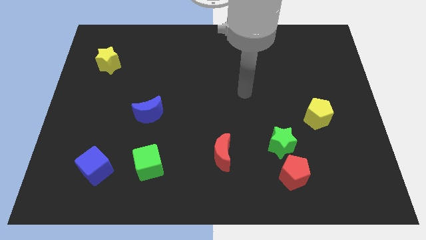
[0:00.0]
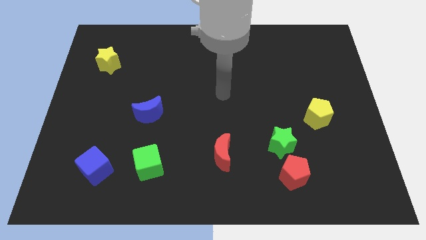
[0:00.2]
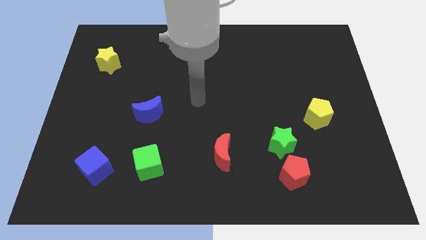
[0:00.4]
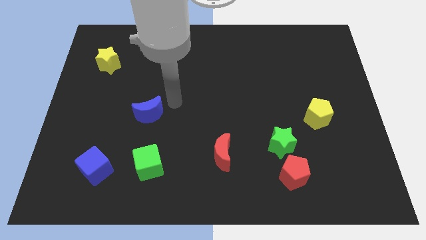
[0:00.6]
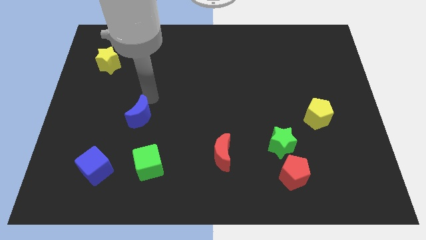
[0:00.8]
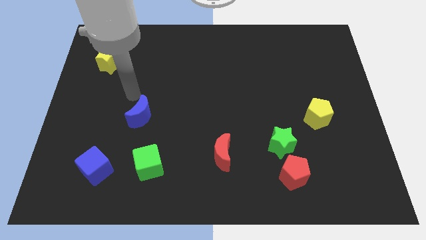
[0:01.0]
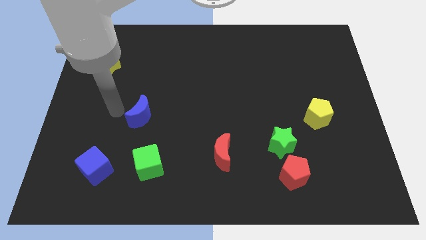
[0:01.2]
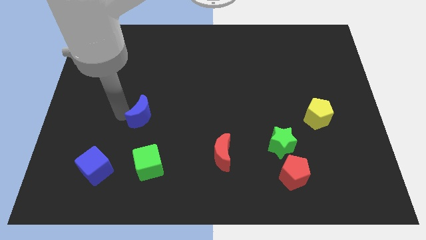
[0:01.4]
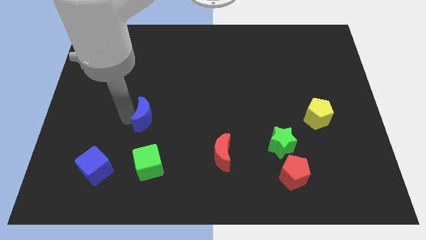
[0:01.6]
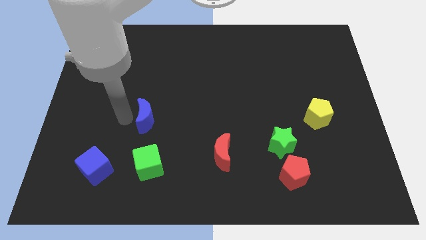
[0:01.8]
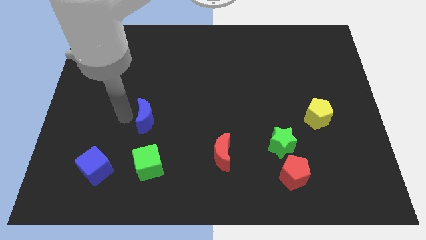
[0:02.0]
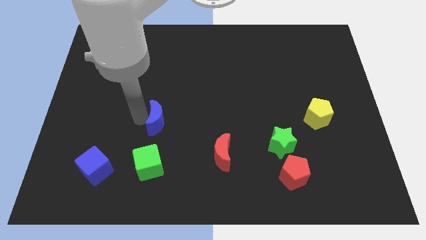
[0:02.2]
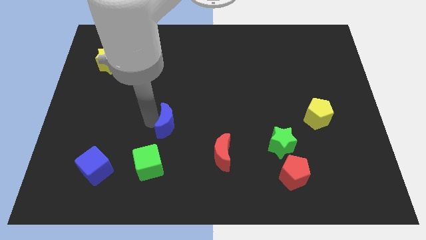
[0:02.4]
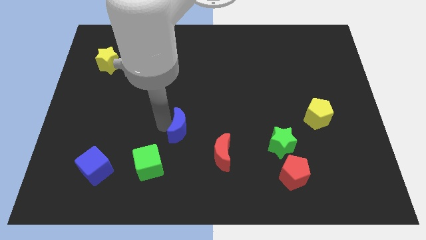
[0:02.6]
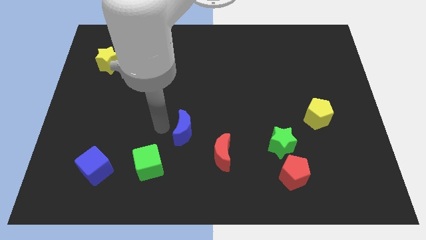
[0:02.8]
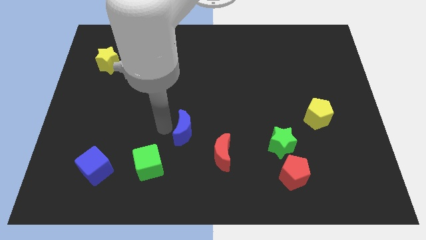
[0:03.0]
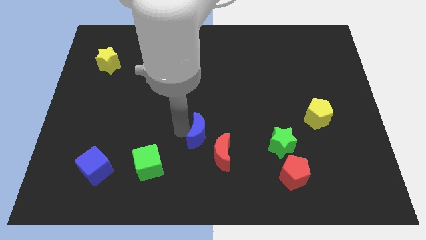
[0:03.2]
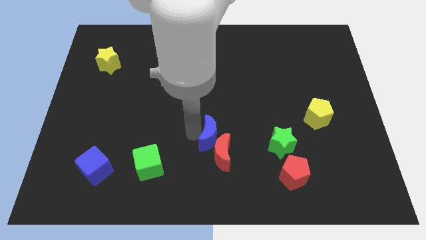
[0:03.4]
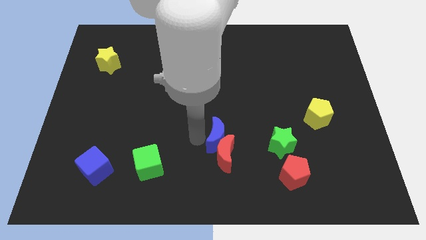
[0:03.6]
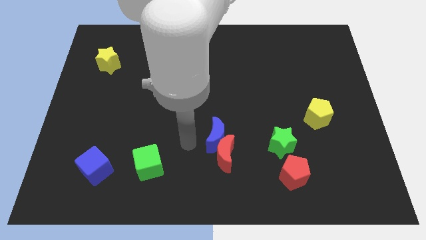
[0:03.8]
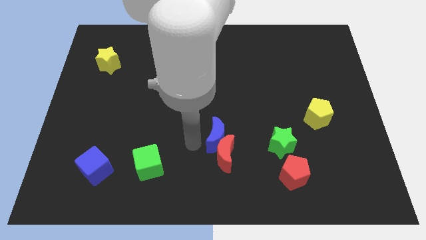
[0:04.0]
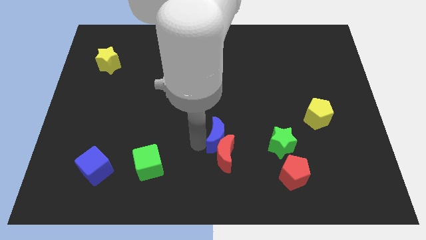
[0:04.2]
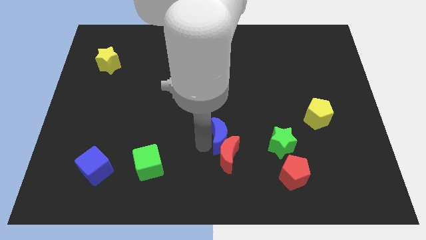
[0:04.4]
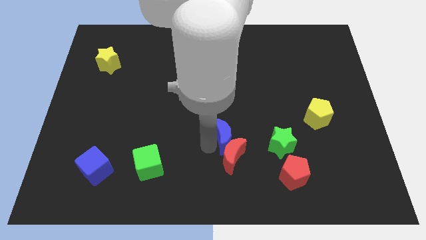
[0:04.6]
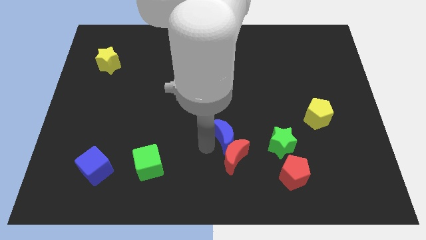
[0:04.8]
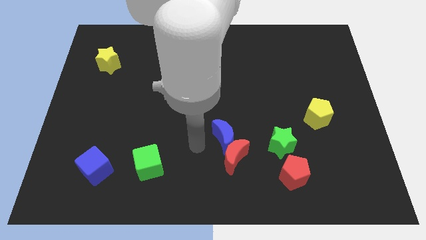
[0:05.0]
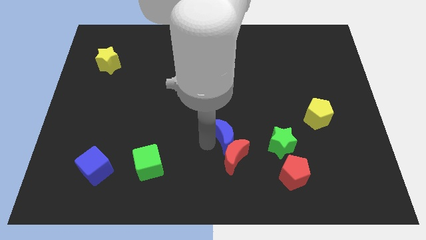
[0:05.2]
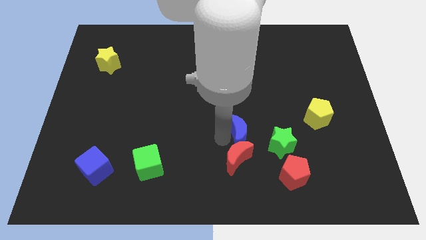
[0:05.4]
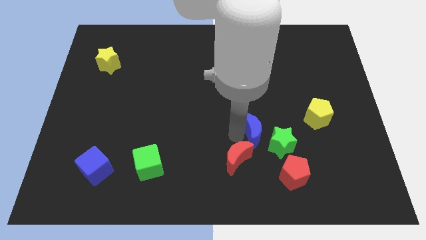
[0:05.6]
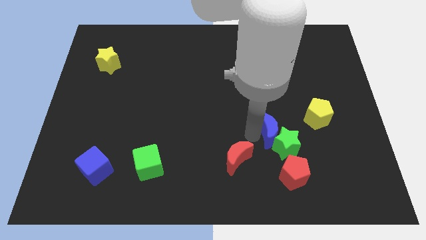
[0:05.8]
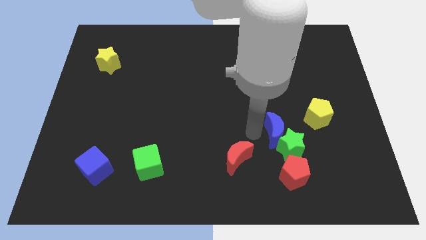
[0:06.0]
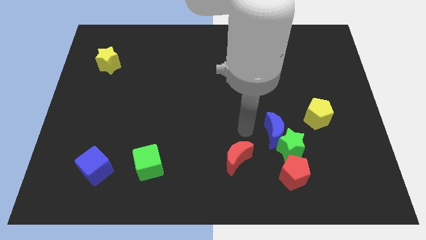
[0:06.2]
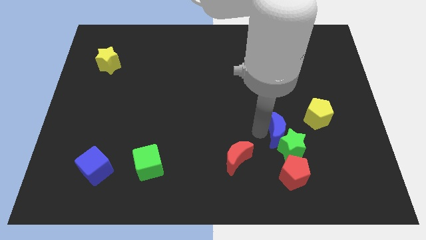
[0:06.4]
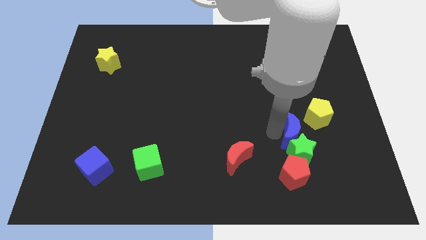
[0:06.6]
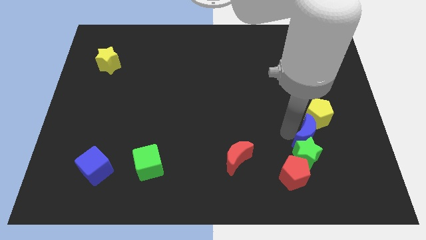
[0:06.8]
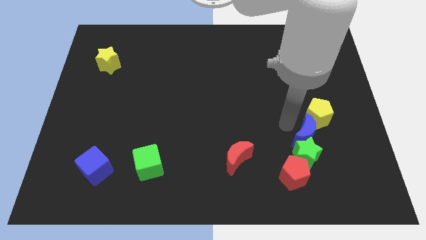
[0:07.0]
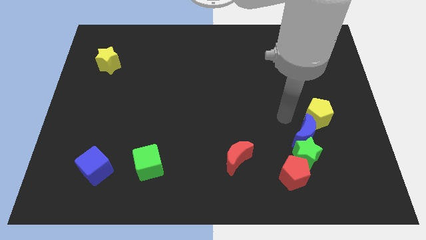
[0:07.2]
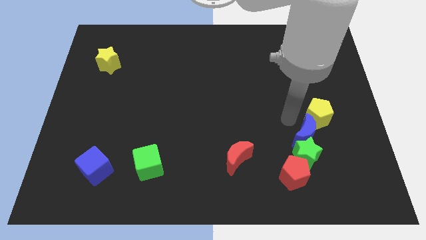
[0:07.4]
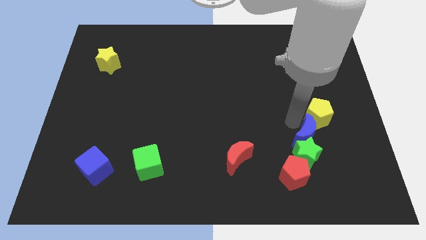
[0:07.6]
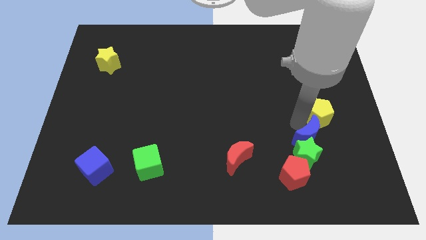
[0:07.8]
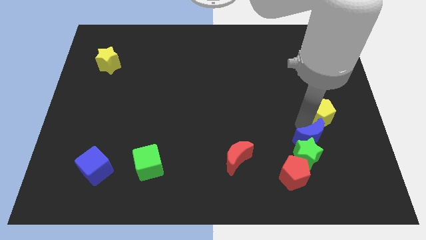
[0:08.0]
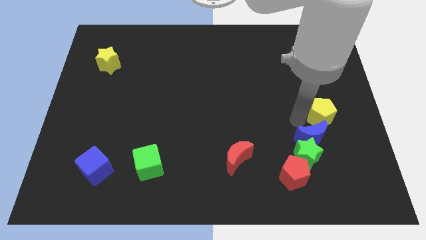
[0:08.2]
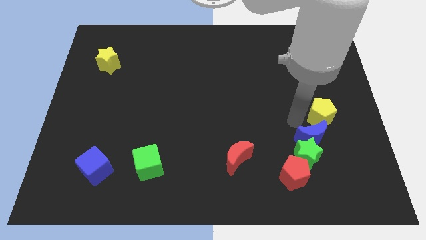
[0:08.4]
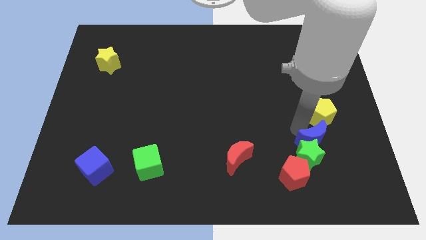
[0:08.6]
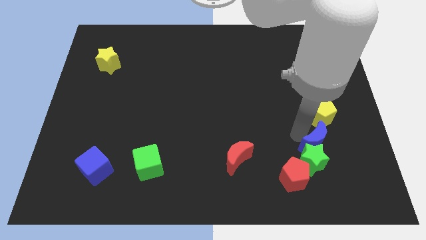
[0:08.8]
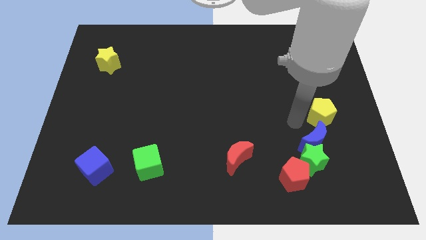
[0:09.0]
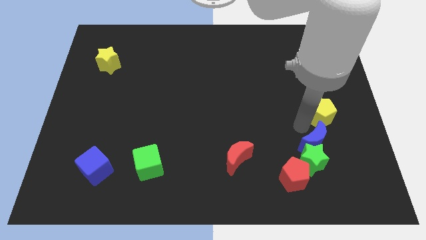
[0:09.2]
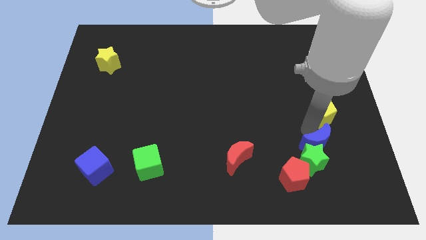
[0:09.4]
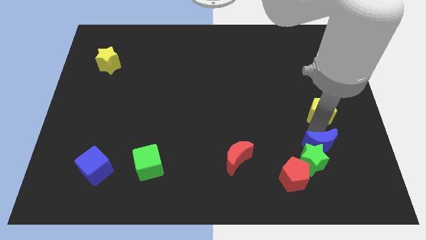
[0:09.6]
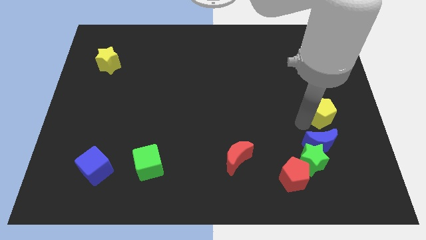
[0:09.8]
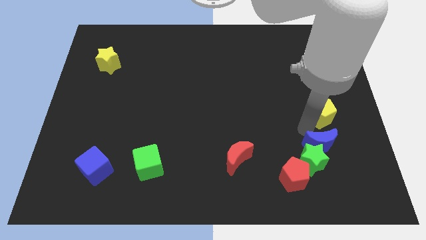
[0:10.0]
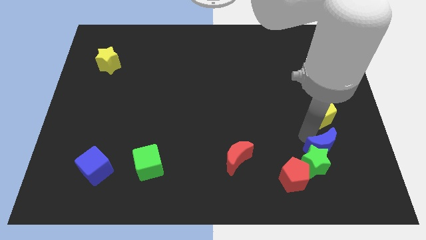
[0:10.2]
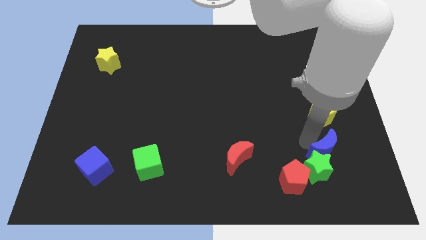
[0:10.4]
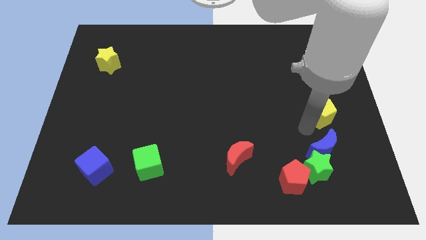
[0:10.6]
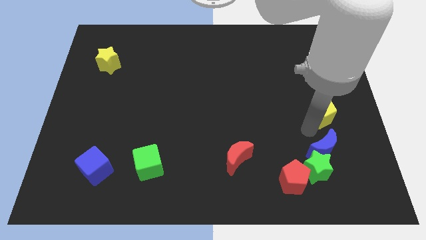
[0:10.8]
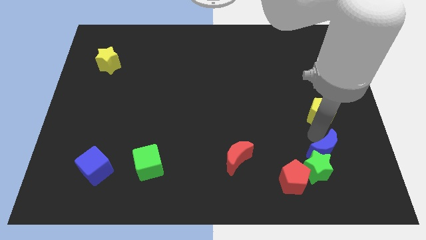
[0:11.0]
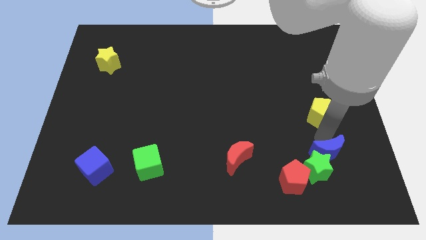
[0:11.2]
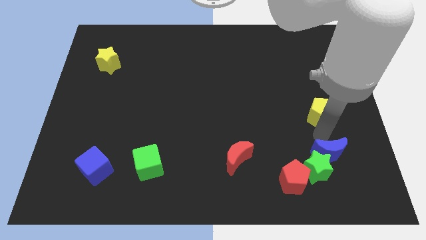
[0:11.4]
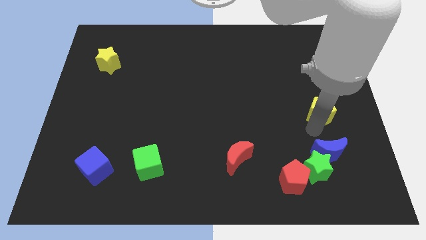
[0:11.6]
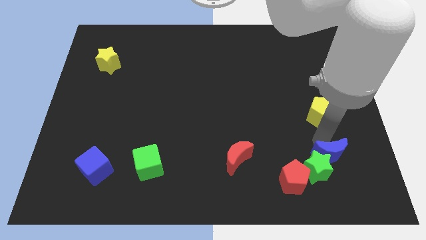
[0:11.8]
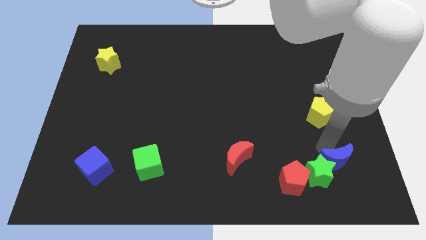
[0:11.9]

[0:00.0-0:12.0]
push the blue moon just right of the red pentagon

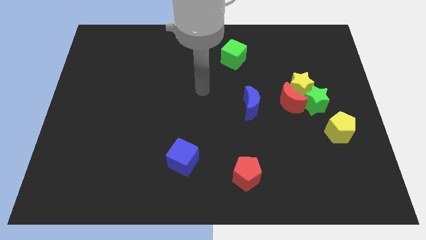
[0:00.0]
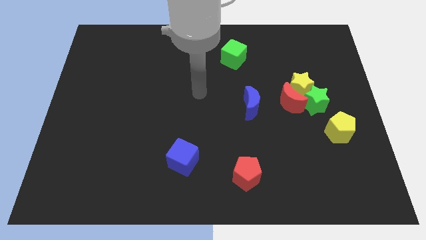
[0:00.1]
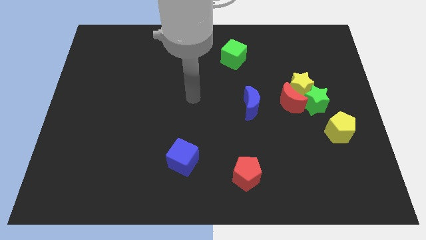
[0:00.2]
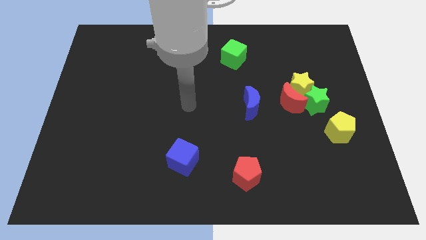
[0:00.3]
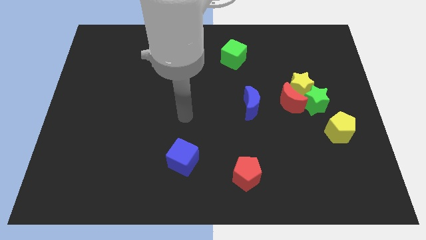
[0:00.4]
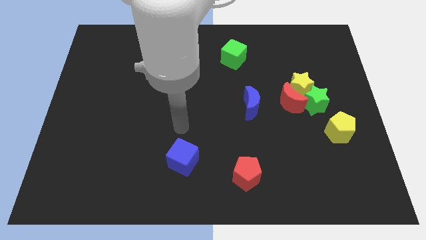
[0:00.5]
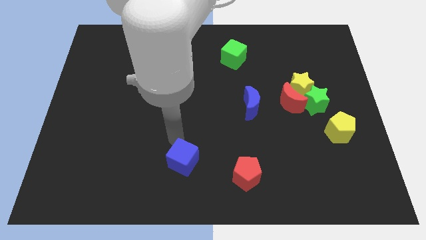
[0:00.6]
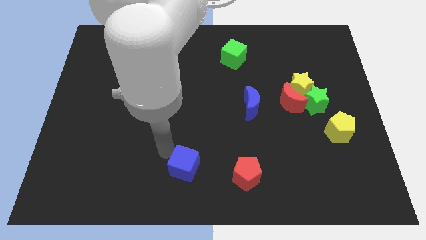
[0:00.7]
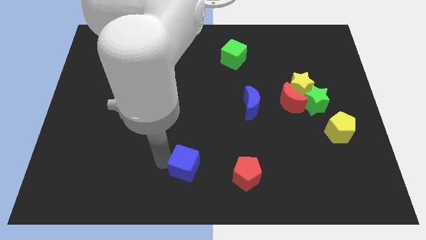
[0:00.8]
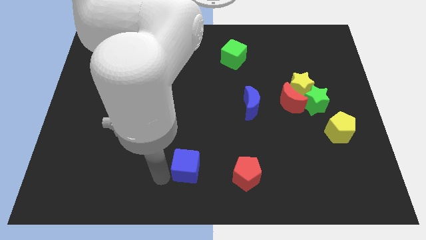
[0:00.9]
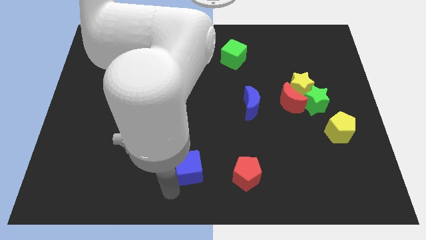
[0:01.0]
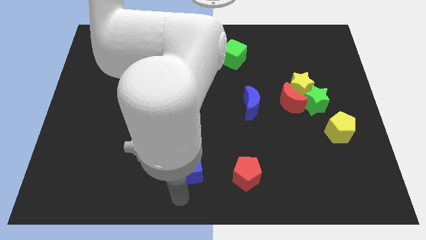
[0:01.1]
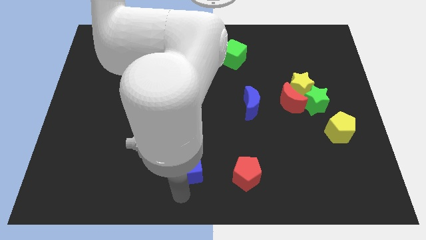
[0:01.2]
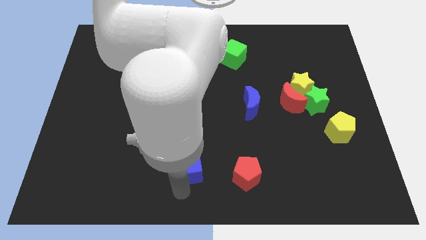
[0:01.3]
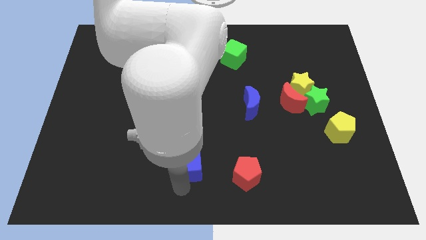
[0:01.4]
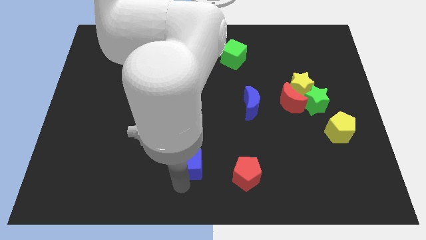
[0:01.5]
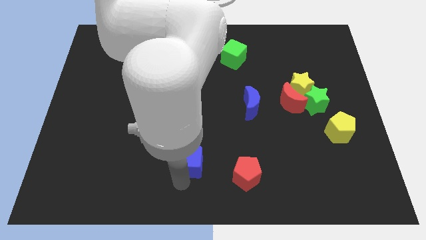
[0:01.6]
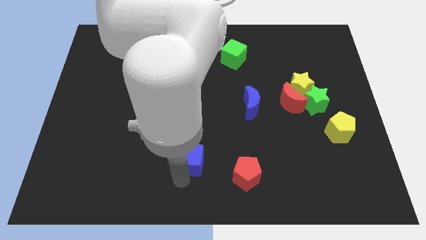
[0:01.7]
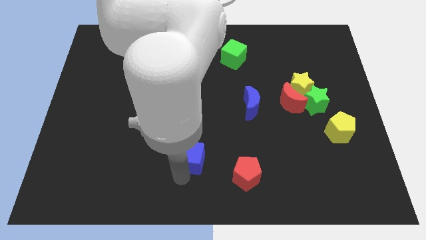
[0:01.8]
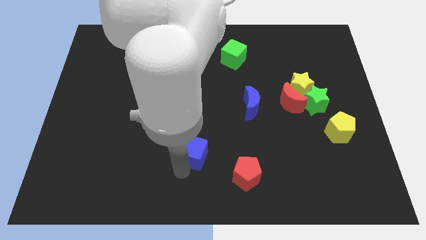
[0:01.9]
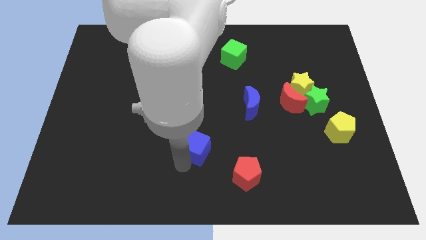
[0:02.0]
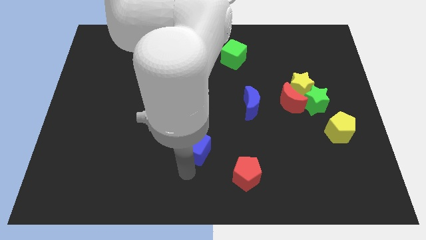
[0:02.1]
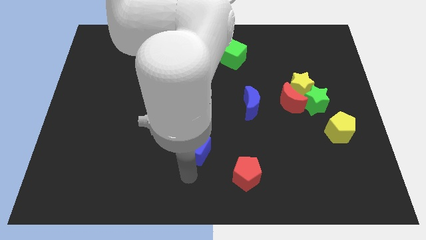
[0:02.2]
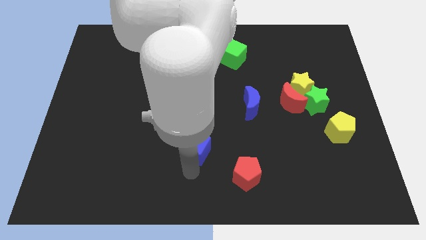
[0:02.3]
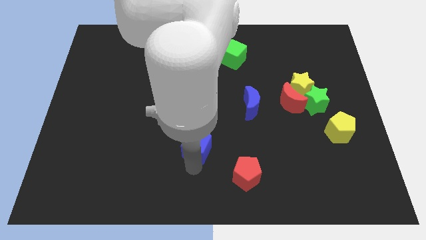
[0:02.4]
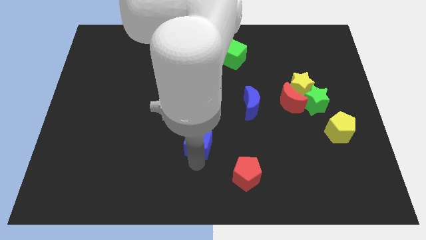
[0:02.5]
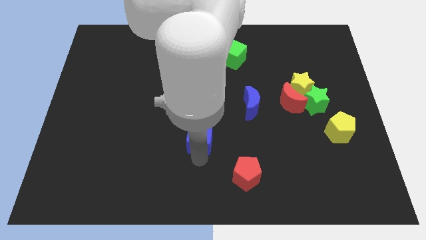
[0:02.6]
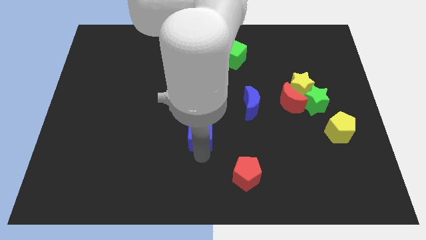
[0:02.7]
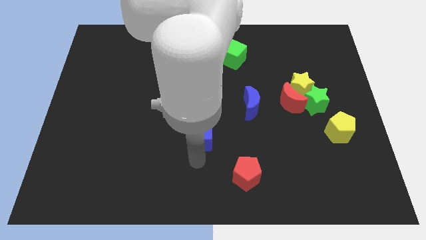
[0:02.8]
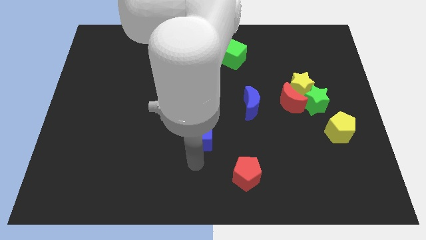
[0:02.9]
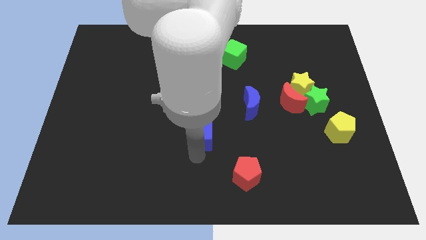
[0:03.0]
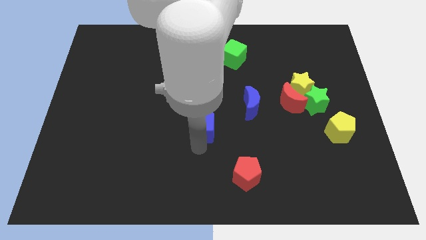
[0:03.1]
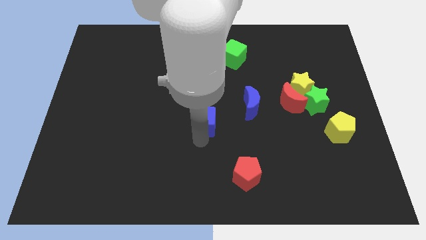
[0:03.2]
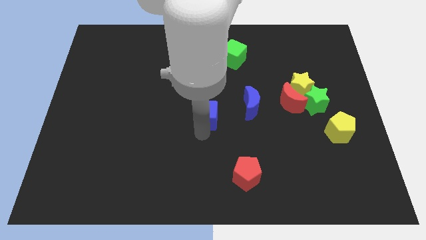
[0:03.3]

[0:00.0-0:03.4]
move the blue cube to the left side of the blue moon
